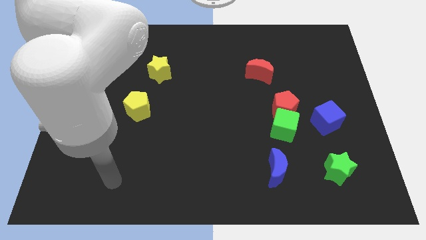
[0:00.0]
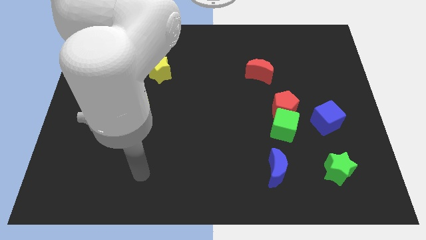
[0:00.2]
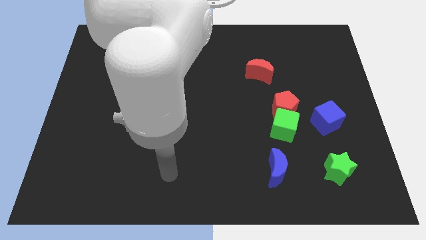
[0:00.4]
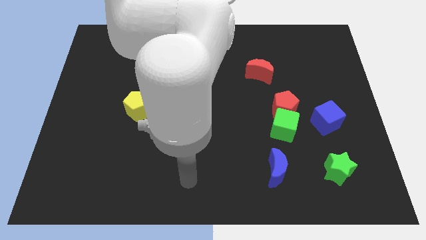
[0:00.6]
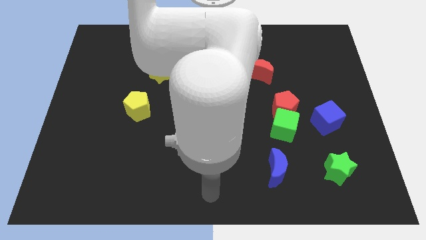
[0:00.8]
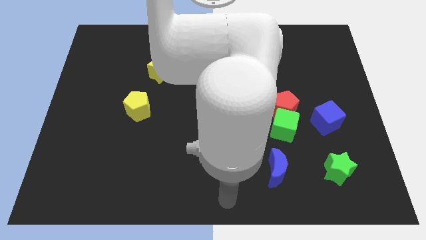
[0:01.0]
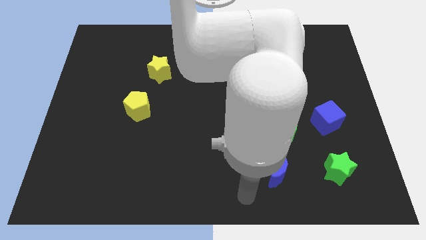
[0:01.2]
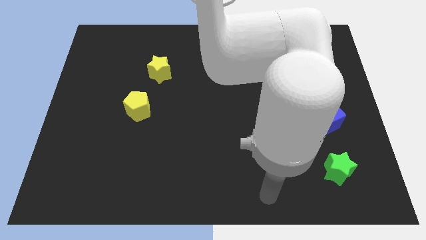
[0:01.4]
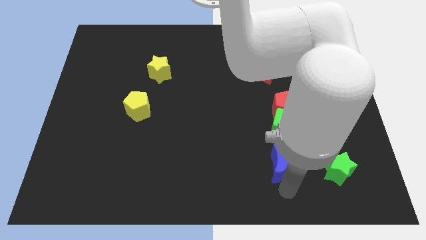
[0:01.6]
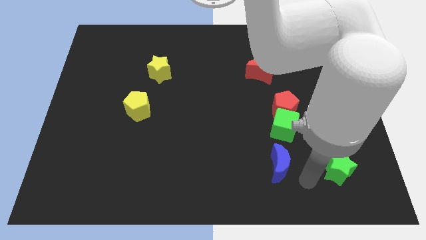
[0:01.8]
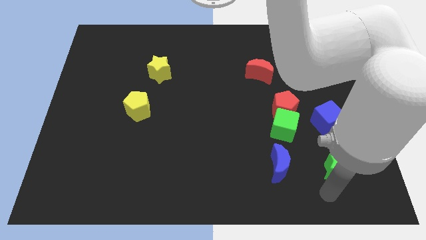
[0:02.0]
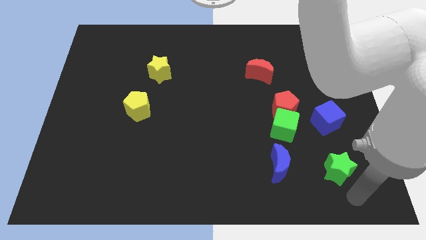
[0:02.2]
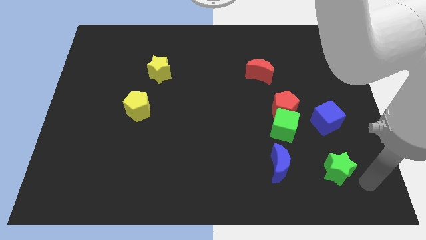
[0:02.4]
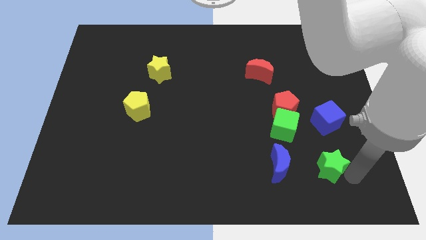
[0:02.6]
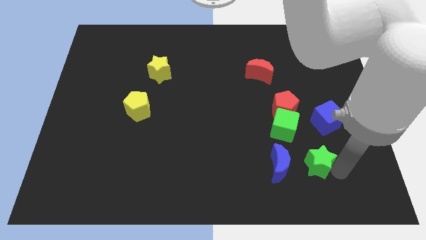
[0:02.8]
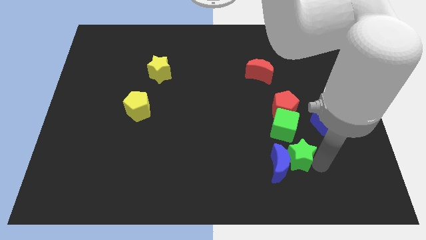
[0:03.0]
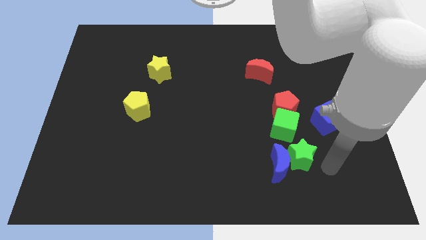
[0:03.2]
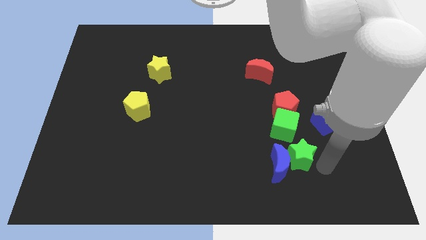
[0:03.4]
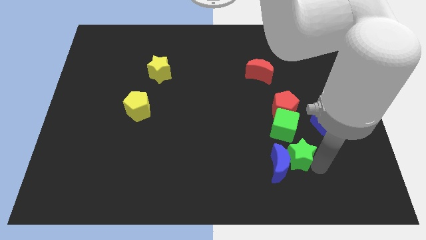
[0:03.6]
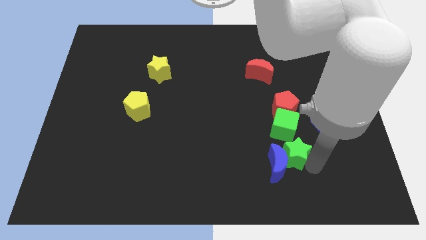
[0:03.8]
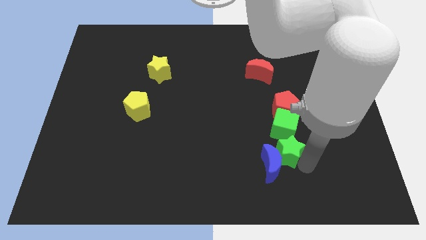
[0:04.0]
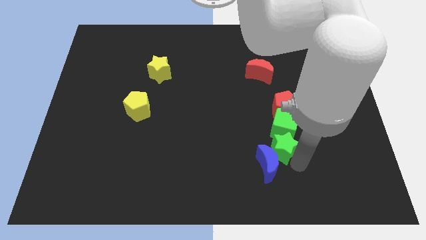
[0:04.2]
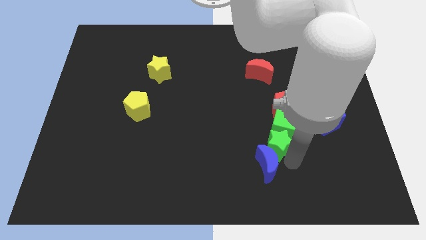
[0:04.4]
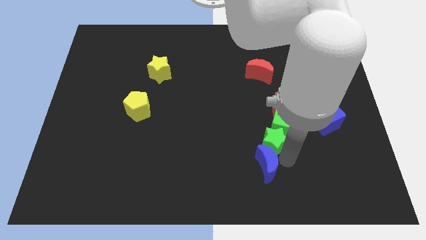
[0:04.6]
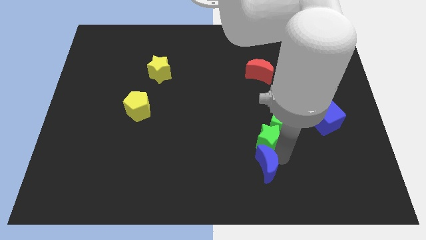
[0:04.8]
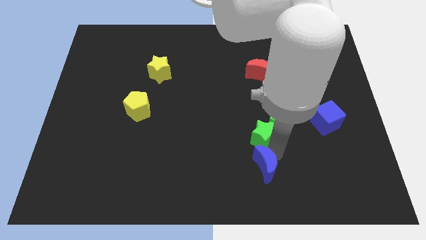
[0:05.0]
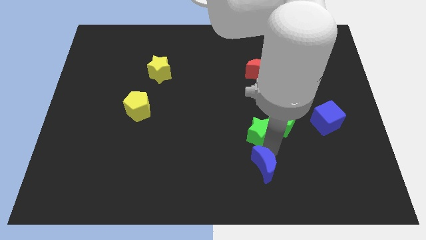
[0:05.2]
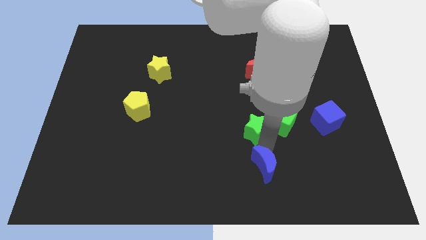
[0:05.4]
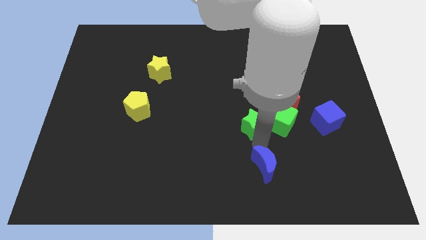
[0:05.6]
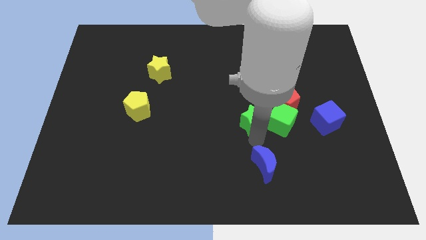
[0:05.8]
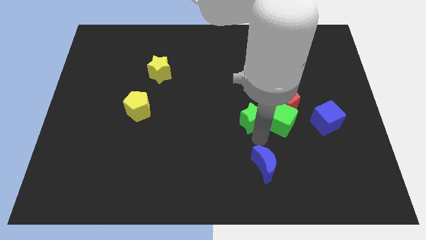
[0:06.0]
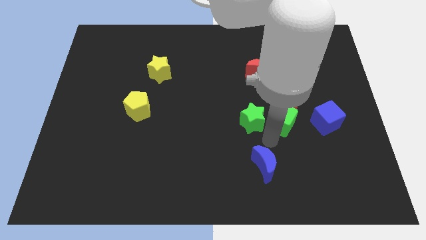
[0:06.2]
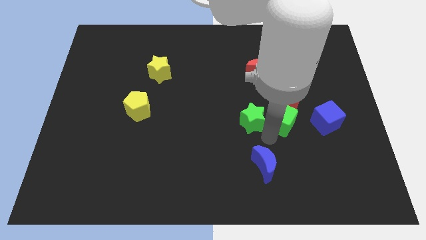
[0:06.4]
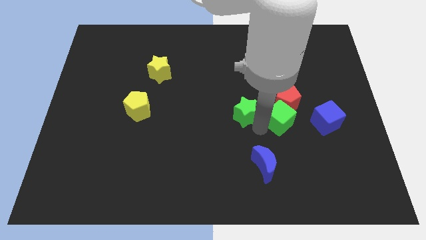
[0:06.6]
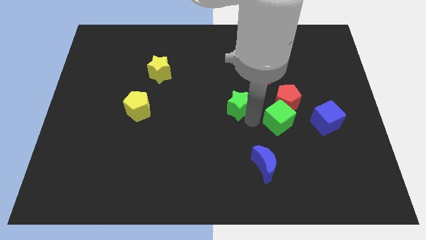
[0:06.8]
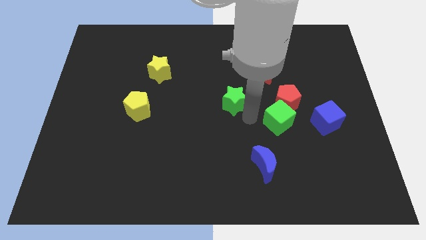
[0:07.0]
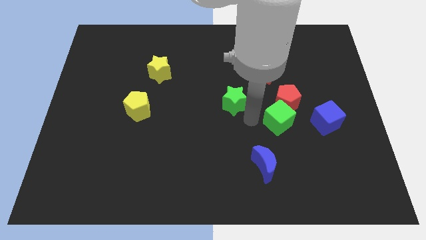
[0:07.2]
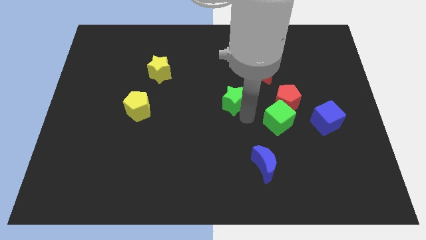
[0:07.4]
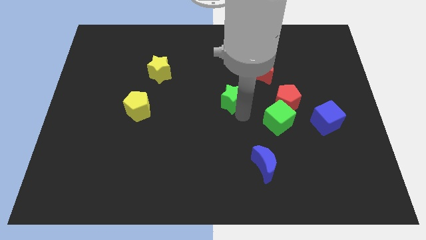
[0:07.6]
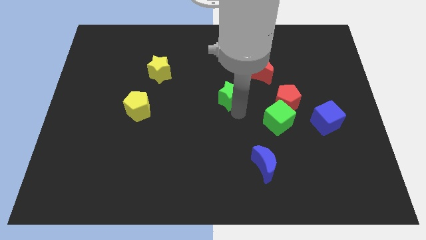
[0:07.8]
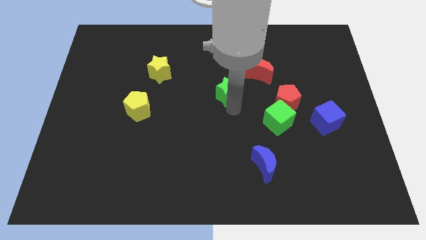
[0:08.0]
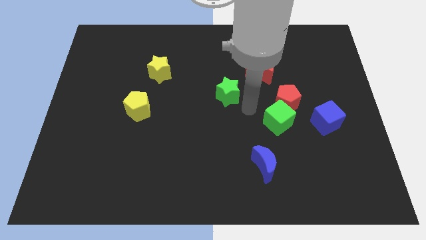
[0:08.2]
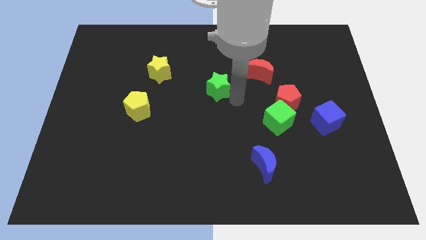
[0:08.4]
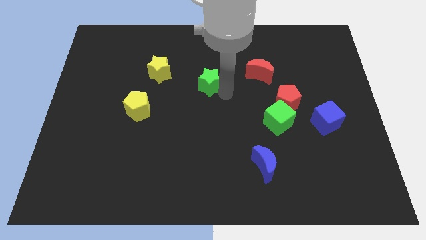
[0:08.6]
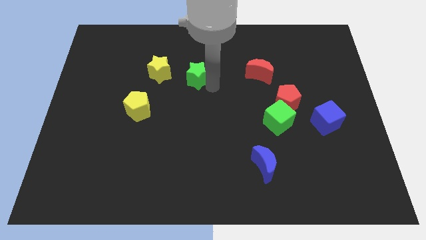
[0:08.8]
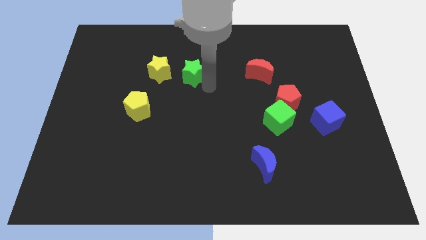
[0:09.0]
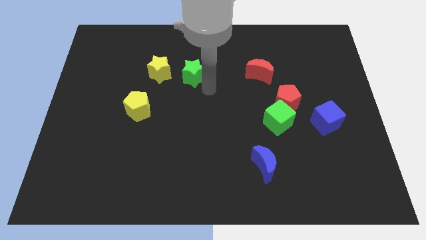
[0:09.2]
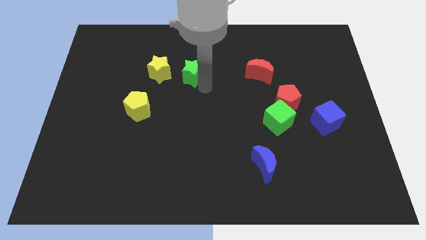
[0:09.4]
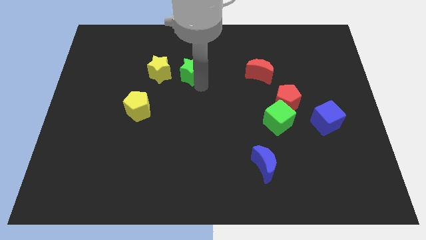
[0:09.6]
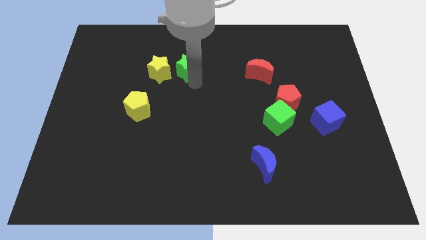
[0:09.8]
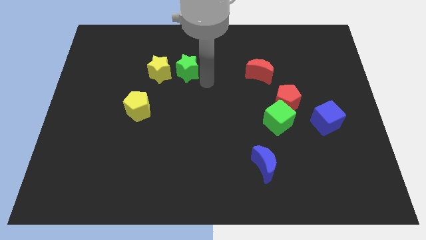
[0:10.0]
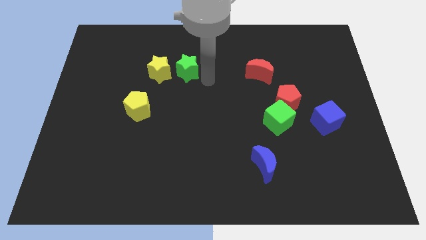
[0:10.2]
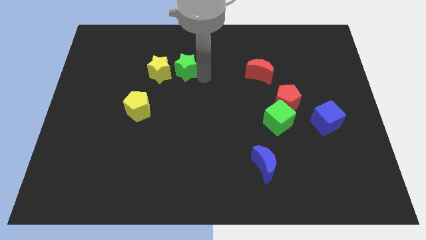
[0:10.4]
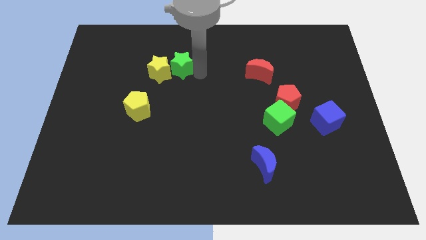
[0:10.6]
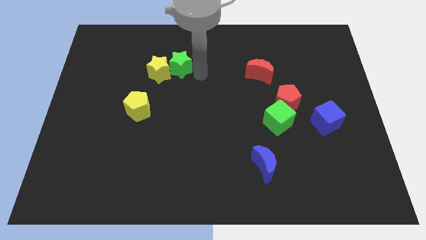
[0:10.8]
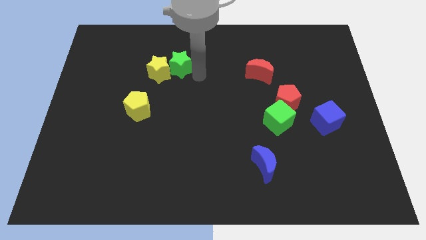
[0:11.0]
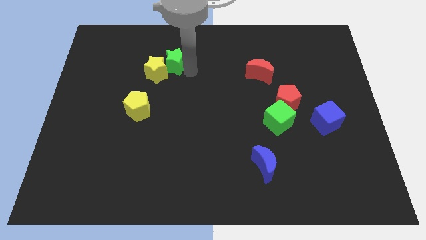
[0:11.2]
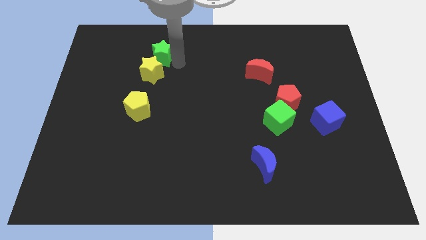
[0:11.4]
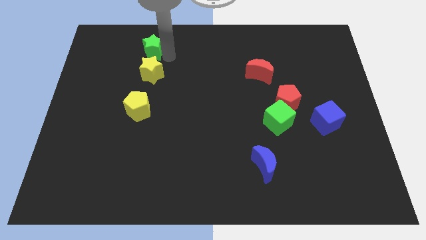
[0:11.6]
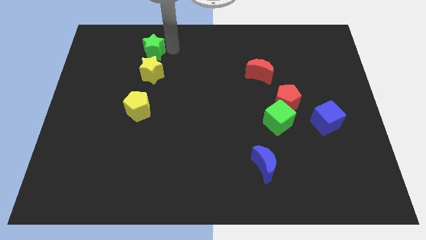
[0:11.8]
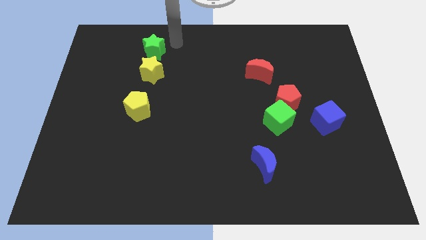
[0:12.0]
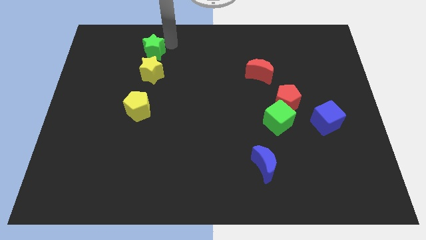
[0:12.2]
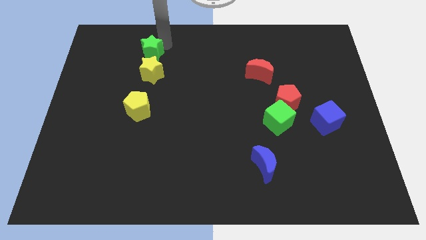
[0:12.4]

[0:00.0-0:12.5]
move the green star to the top left of the yellow star

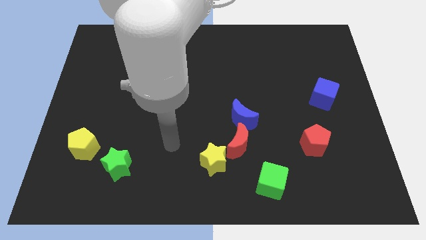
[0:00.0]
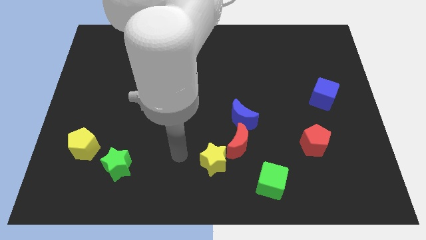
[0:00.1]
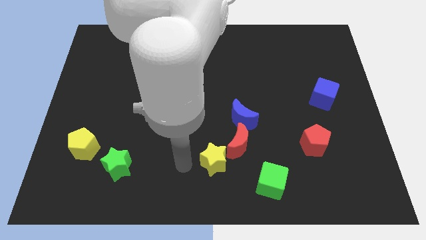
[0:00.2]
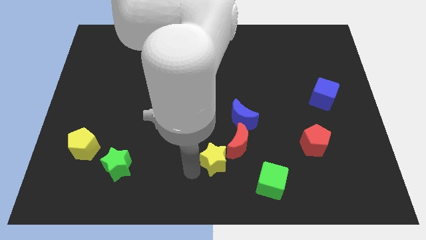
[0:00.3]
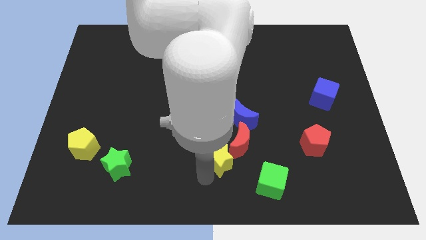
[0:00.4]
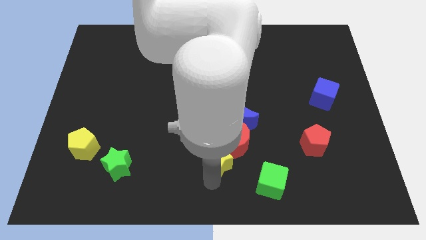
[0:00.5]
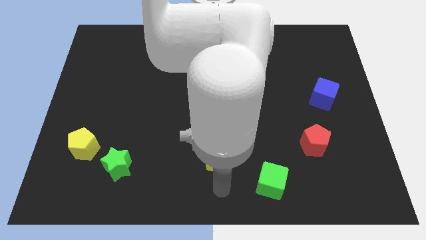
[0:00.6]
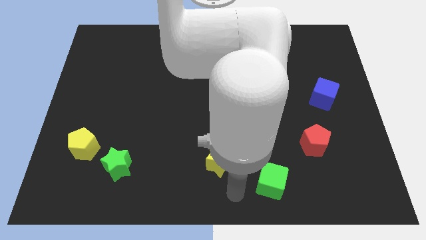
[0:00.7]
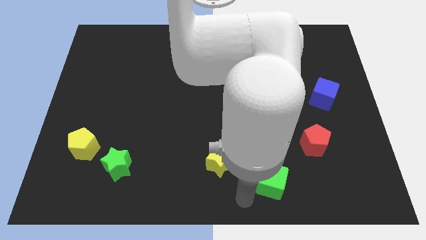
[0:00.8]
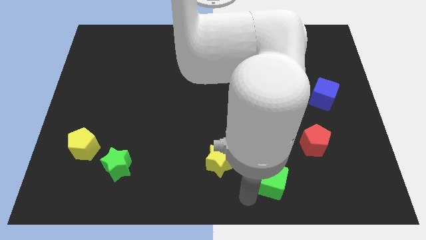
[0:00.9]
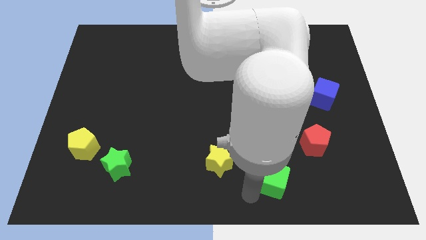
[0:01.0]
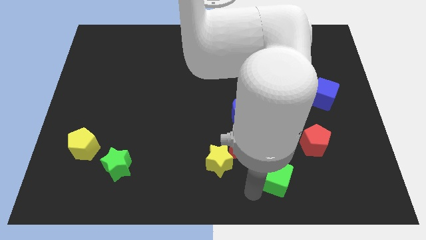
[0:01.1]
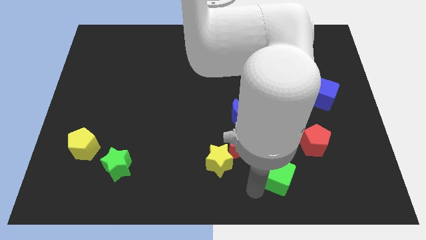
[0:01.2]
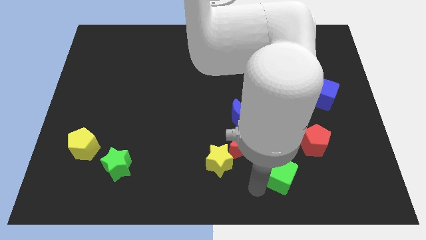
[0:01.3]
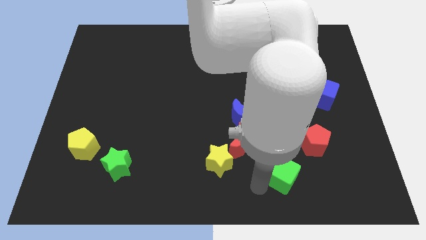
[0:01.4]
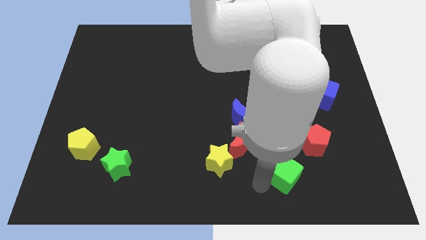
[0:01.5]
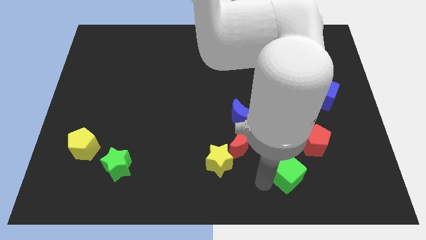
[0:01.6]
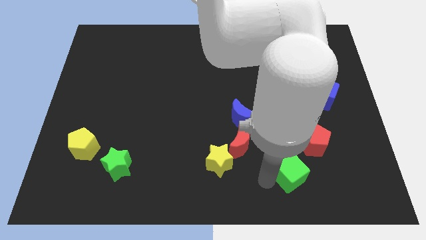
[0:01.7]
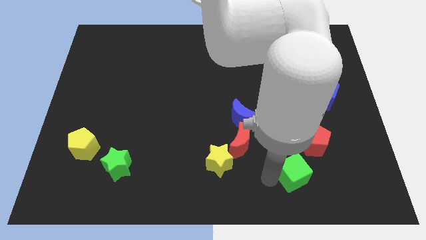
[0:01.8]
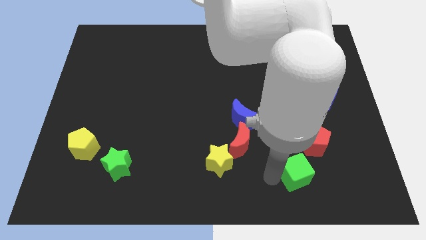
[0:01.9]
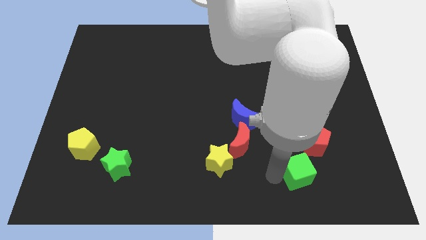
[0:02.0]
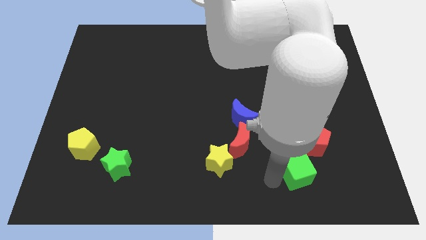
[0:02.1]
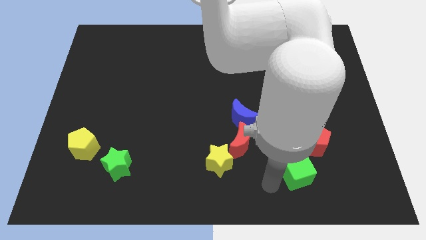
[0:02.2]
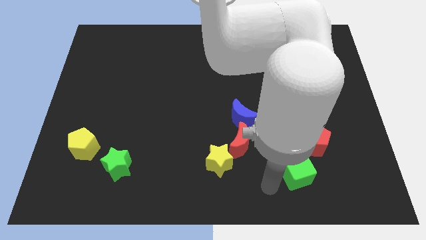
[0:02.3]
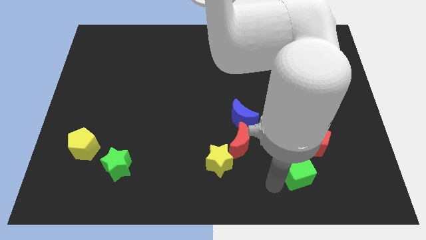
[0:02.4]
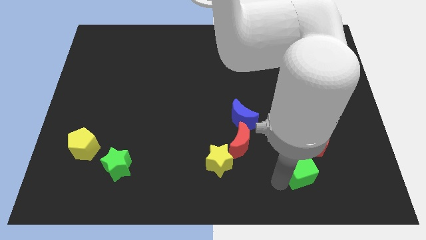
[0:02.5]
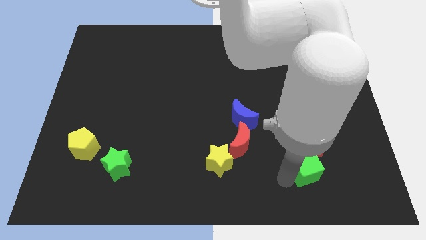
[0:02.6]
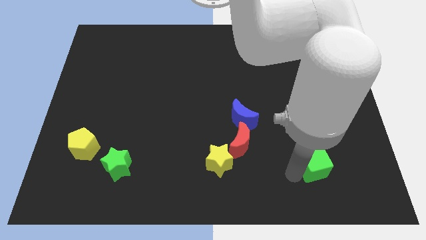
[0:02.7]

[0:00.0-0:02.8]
push the green cube to the bottom right side of the red pentagon
